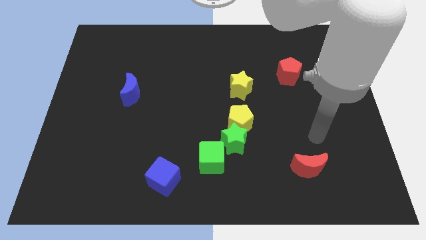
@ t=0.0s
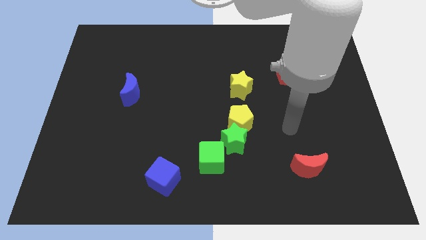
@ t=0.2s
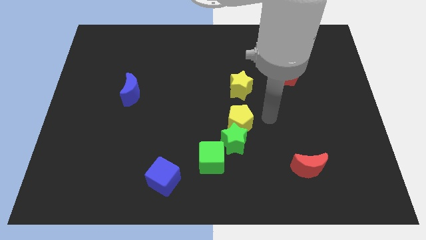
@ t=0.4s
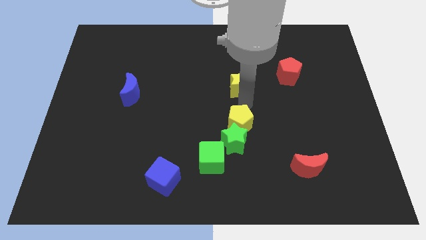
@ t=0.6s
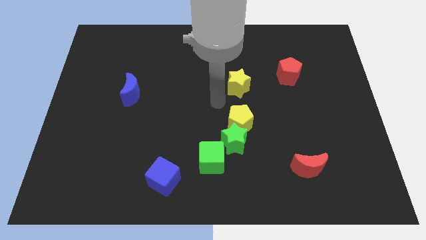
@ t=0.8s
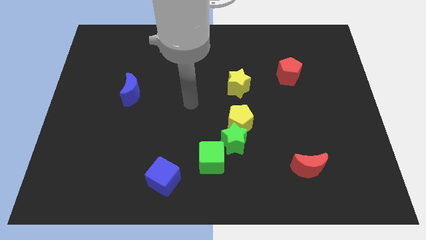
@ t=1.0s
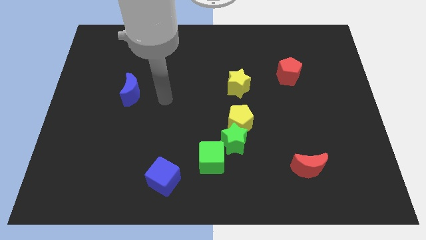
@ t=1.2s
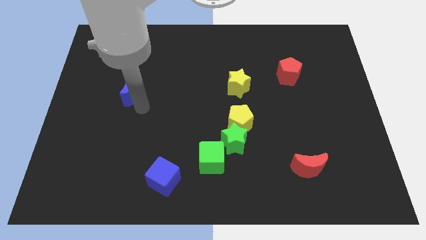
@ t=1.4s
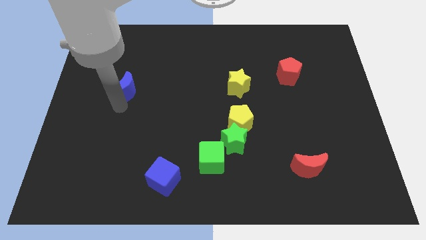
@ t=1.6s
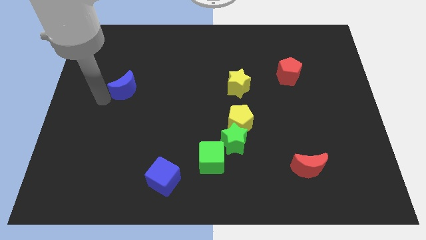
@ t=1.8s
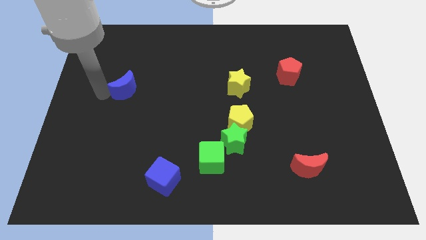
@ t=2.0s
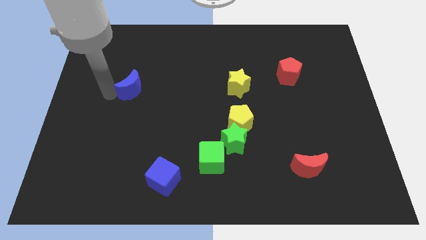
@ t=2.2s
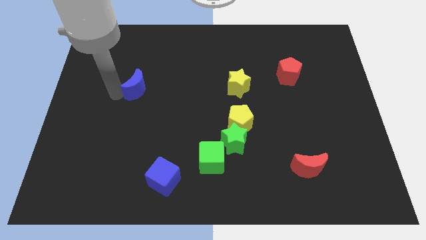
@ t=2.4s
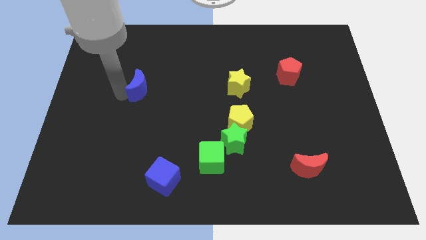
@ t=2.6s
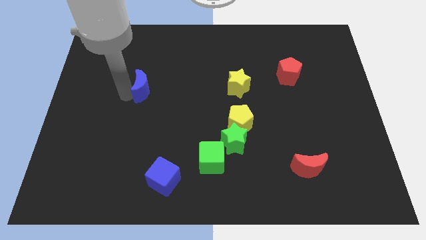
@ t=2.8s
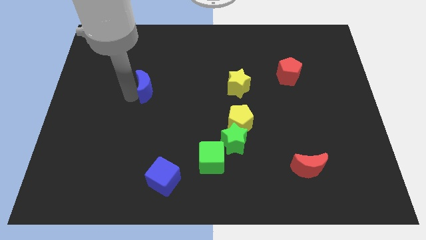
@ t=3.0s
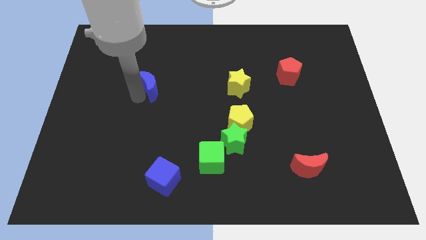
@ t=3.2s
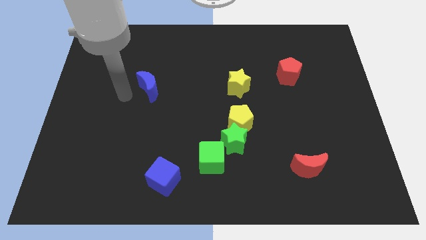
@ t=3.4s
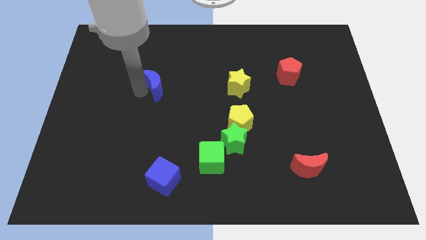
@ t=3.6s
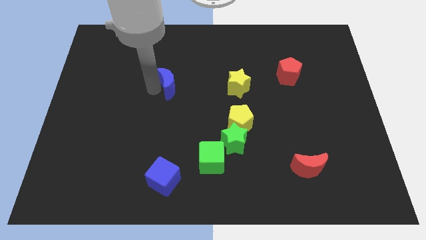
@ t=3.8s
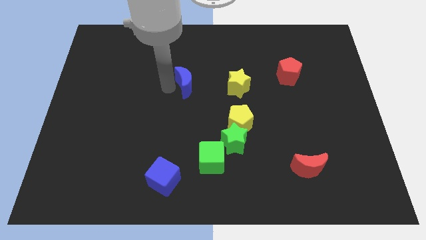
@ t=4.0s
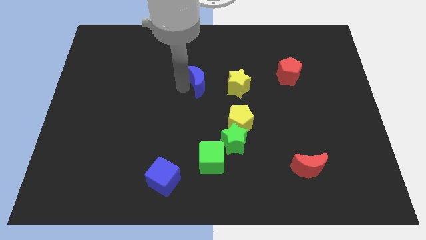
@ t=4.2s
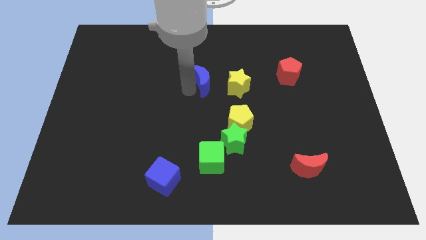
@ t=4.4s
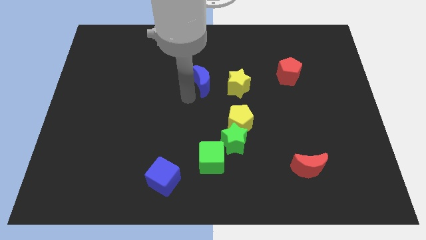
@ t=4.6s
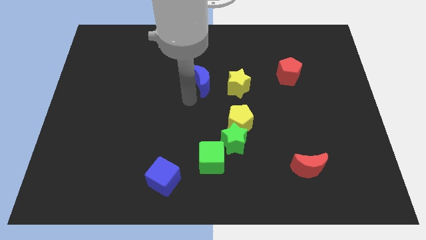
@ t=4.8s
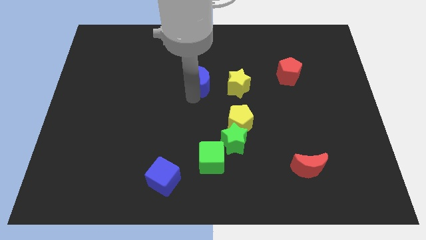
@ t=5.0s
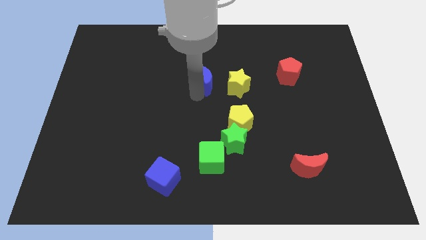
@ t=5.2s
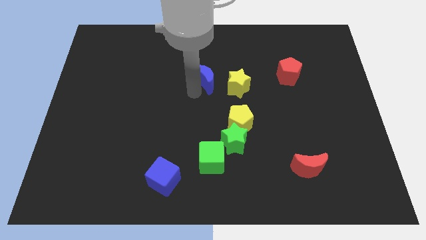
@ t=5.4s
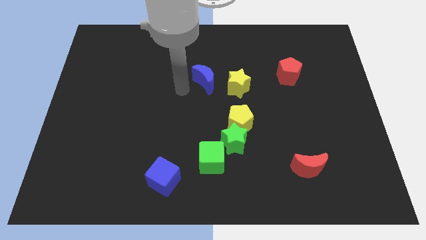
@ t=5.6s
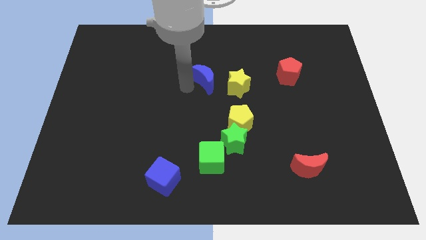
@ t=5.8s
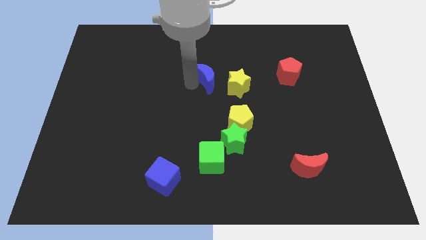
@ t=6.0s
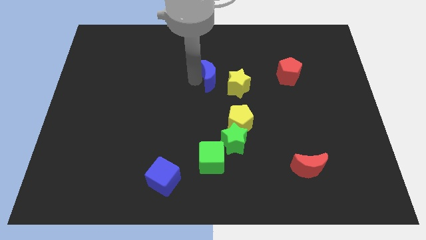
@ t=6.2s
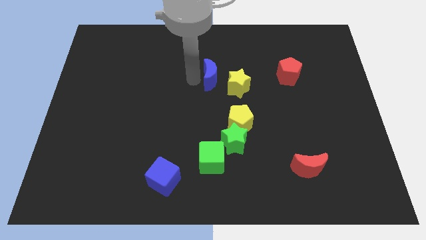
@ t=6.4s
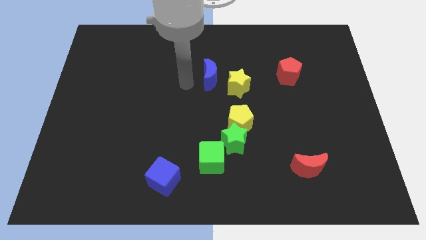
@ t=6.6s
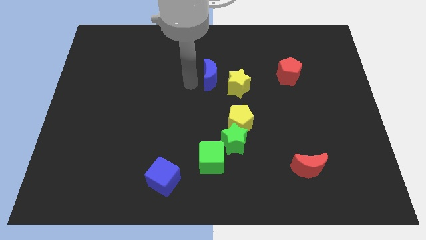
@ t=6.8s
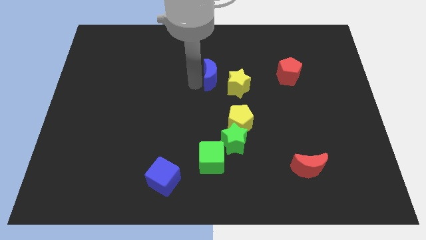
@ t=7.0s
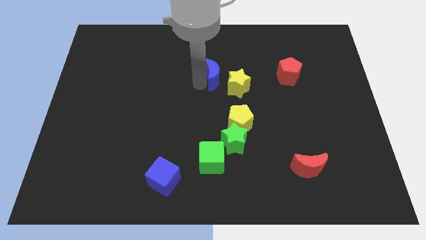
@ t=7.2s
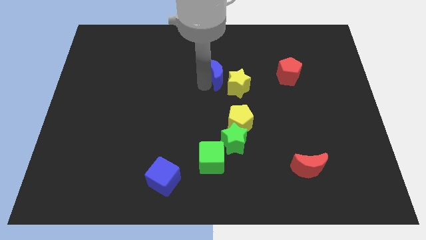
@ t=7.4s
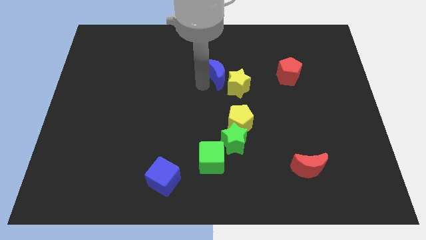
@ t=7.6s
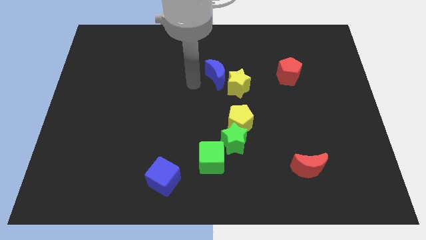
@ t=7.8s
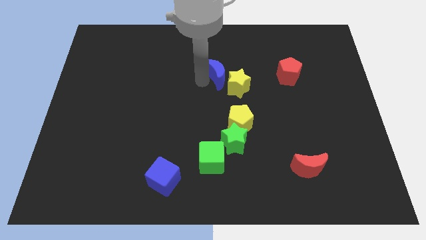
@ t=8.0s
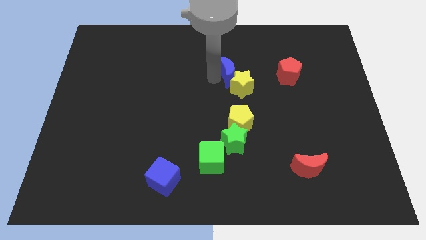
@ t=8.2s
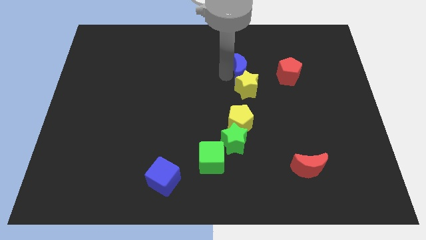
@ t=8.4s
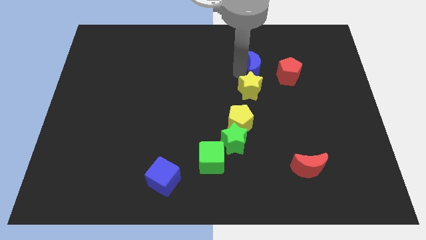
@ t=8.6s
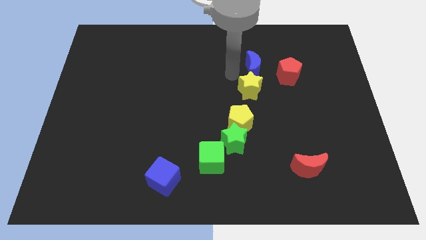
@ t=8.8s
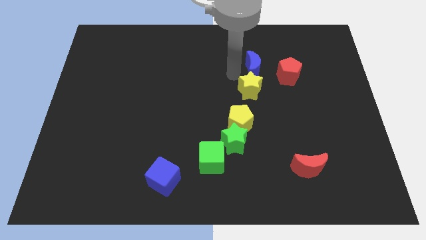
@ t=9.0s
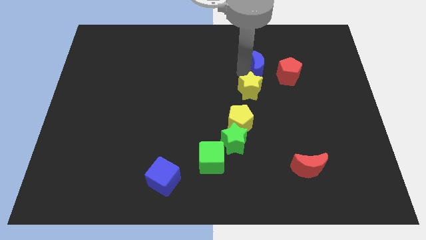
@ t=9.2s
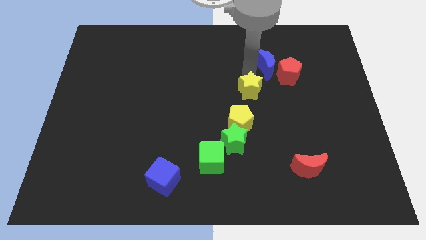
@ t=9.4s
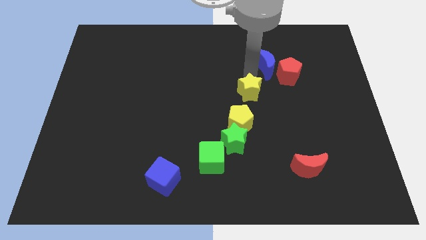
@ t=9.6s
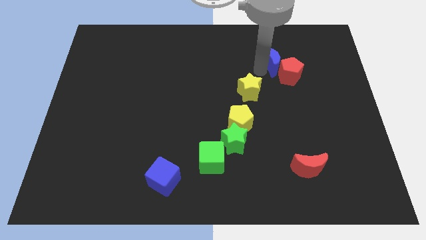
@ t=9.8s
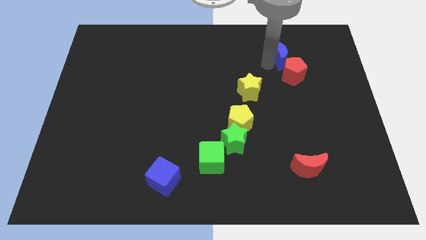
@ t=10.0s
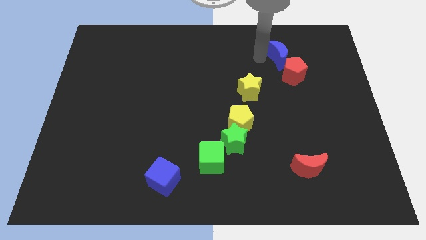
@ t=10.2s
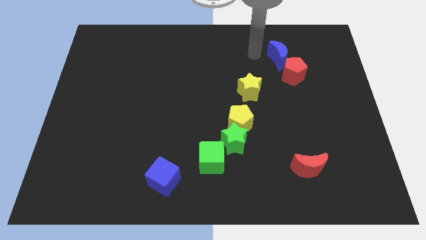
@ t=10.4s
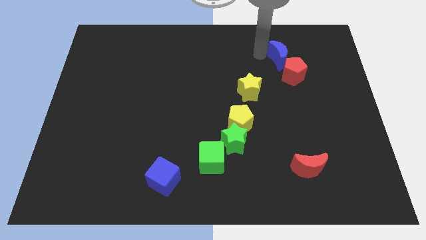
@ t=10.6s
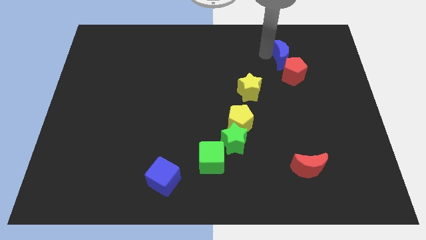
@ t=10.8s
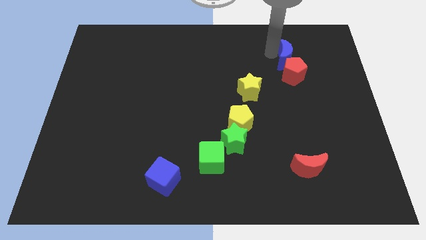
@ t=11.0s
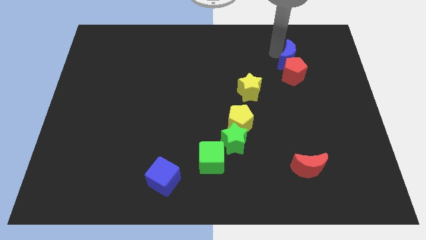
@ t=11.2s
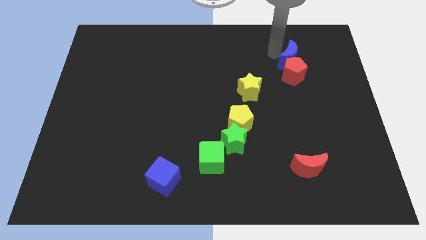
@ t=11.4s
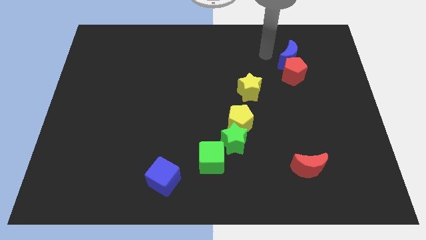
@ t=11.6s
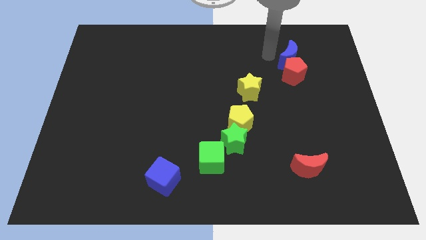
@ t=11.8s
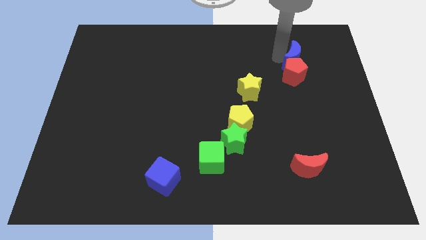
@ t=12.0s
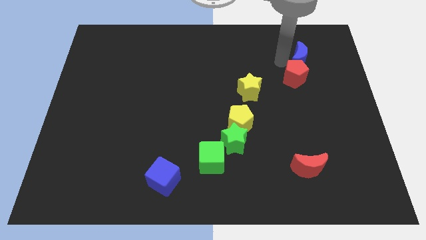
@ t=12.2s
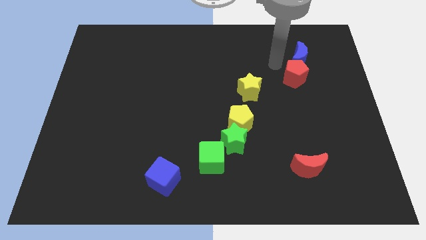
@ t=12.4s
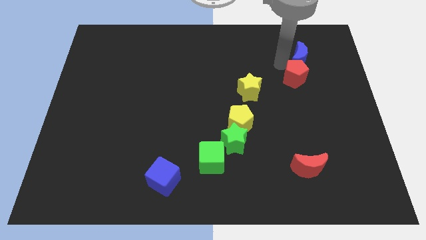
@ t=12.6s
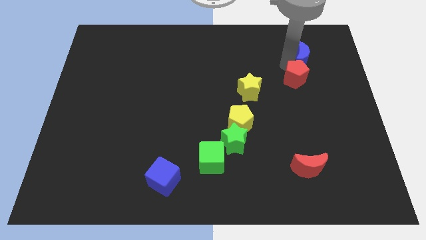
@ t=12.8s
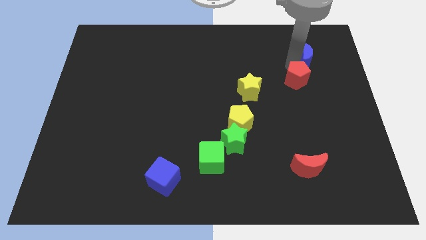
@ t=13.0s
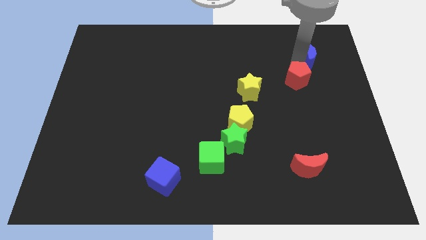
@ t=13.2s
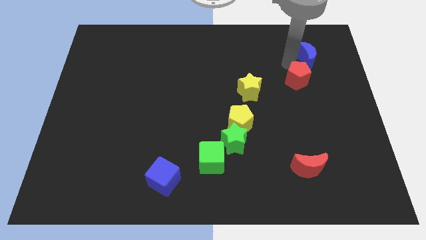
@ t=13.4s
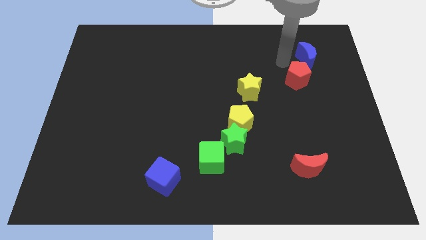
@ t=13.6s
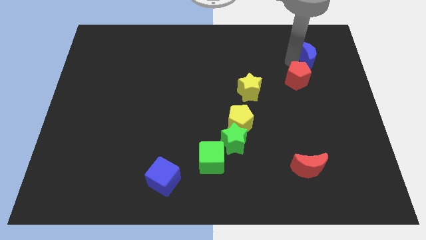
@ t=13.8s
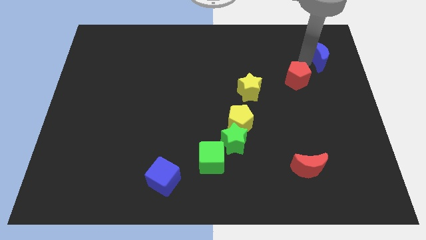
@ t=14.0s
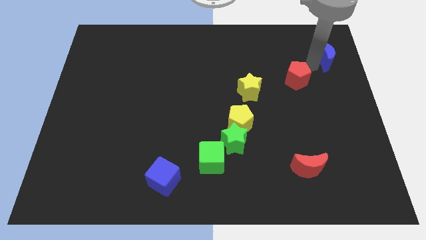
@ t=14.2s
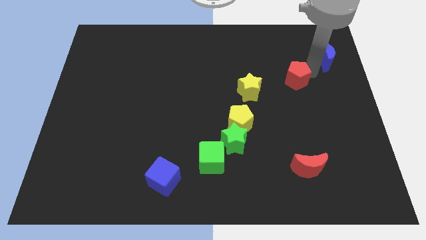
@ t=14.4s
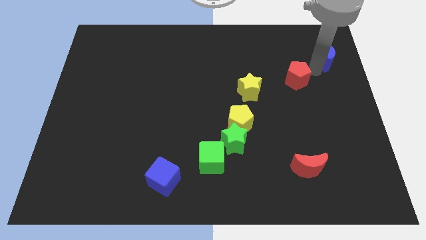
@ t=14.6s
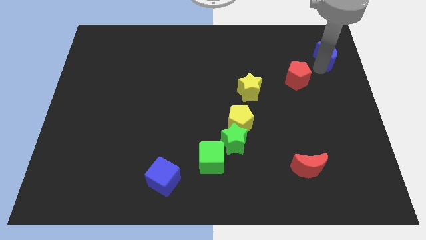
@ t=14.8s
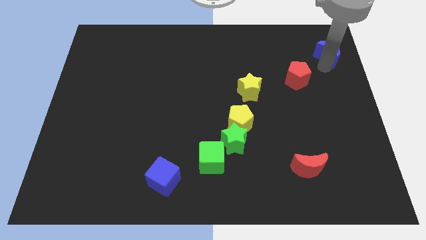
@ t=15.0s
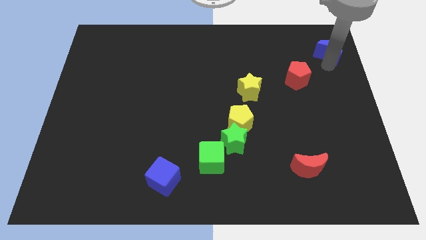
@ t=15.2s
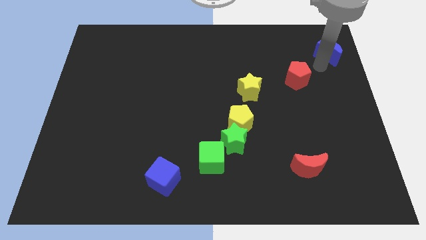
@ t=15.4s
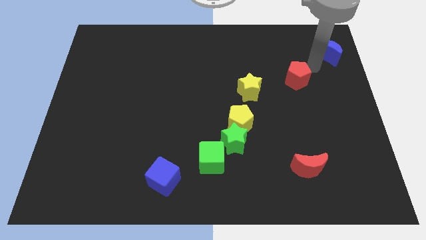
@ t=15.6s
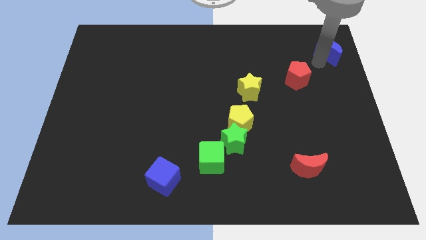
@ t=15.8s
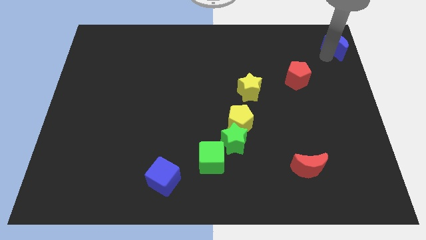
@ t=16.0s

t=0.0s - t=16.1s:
slide the blue moon to the top right of the board
